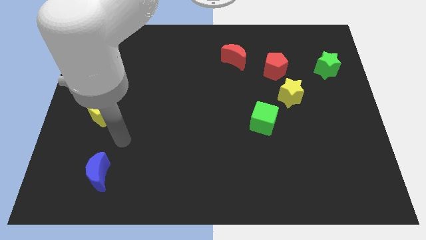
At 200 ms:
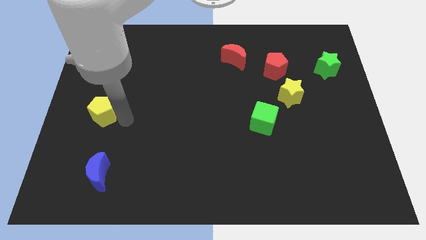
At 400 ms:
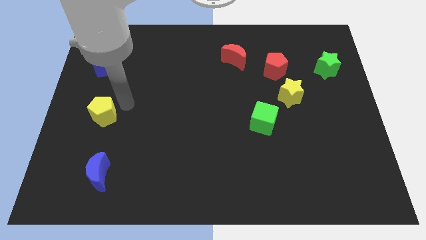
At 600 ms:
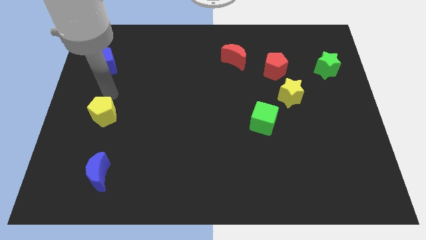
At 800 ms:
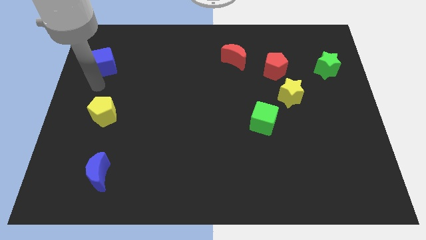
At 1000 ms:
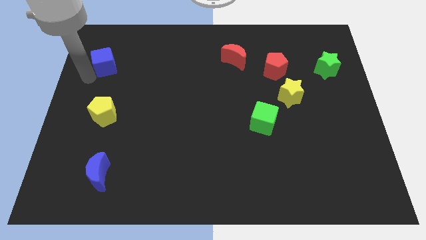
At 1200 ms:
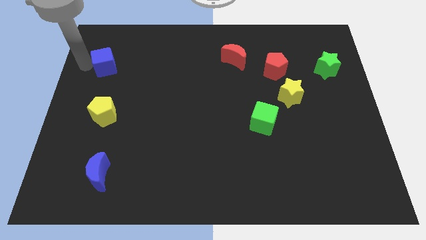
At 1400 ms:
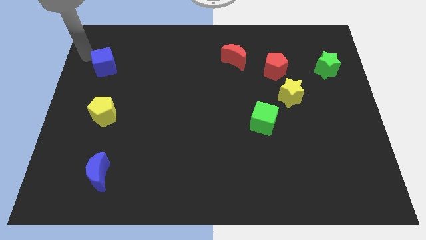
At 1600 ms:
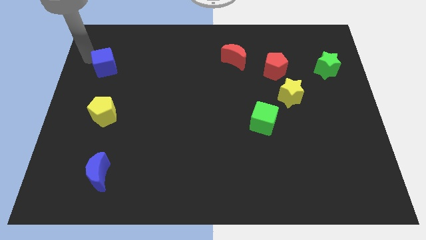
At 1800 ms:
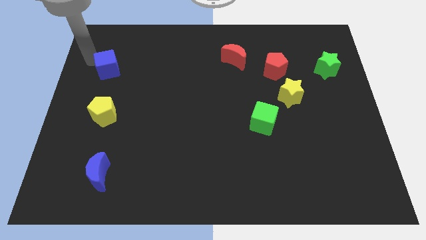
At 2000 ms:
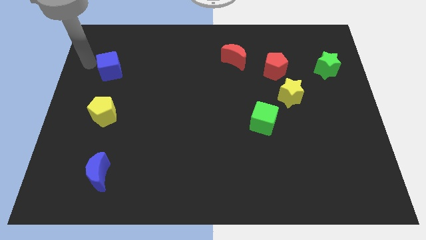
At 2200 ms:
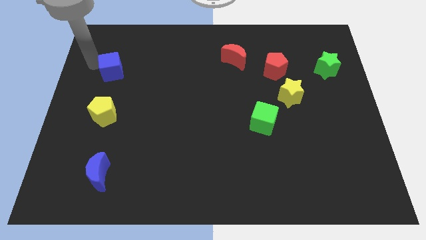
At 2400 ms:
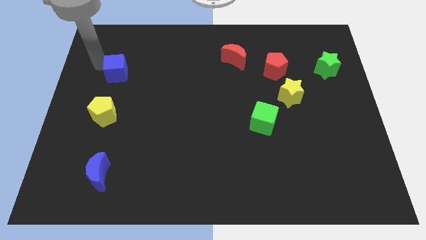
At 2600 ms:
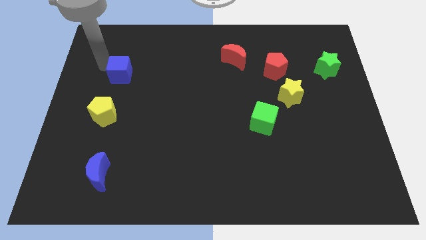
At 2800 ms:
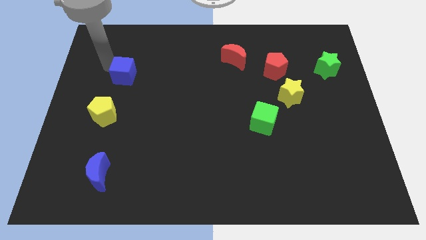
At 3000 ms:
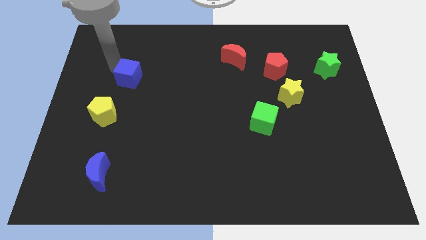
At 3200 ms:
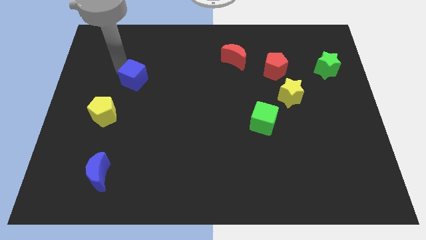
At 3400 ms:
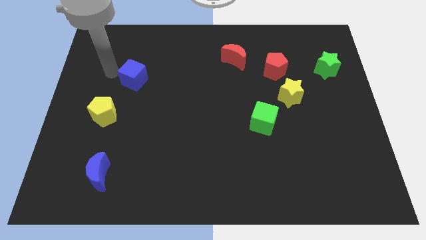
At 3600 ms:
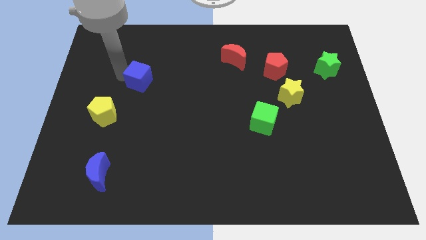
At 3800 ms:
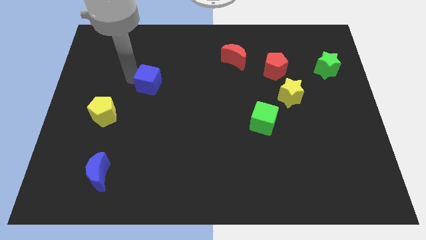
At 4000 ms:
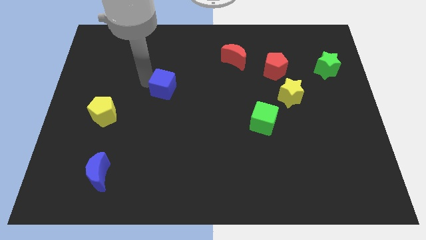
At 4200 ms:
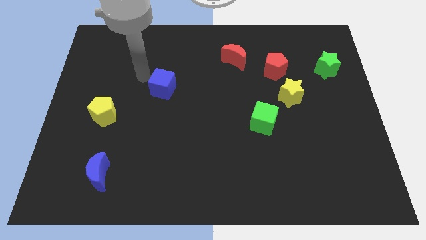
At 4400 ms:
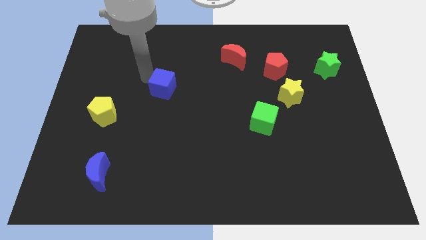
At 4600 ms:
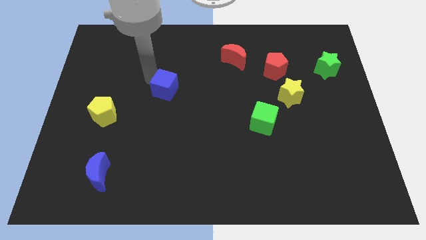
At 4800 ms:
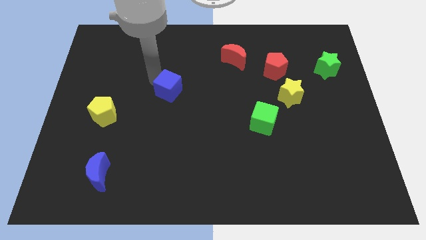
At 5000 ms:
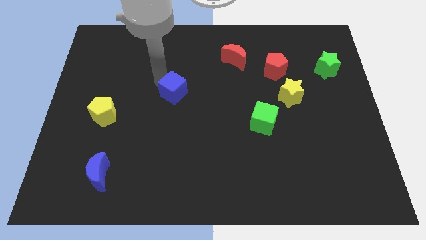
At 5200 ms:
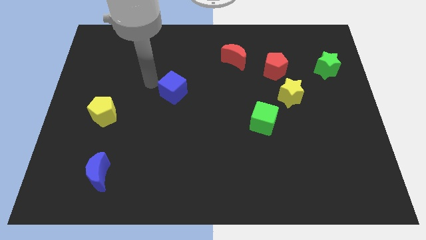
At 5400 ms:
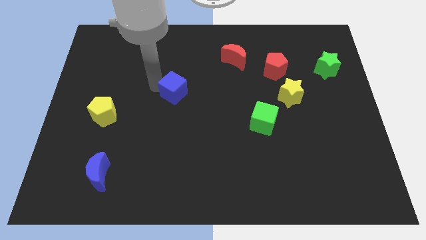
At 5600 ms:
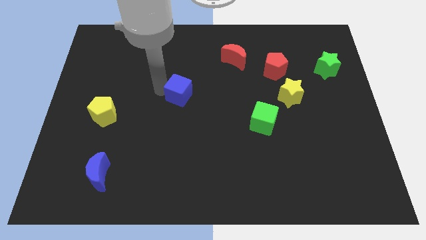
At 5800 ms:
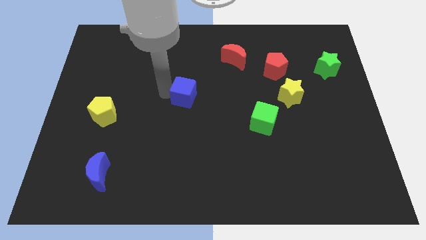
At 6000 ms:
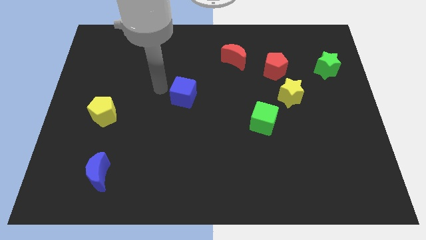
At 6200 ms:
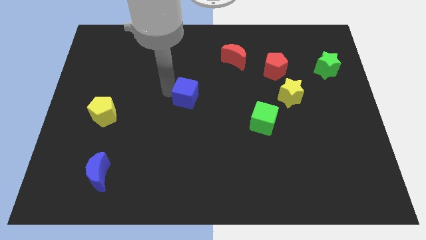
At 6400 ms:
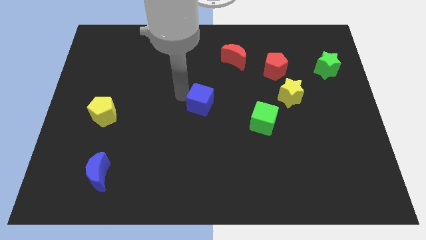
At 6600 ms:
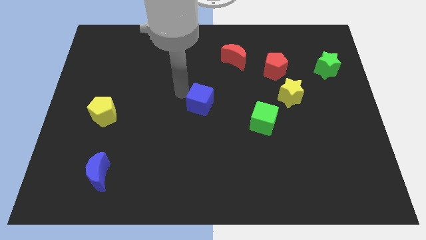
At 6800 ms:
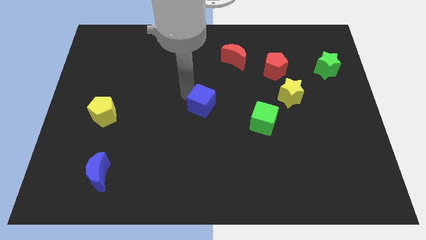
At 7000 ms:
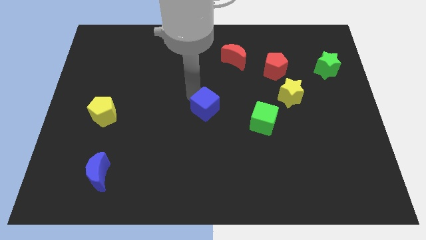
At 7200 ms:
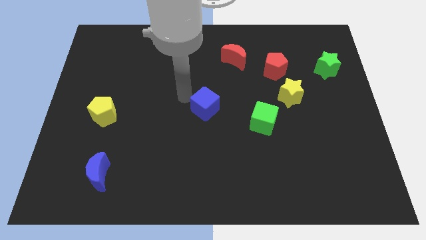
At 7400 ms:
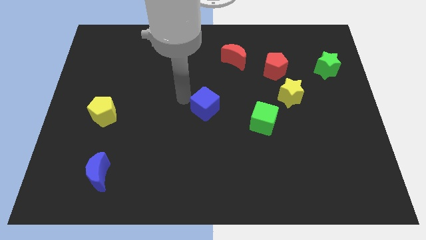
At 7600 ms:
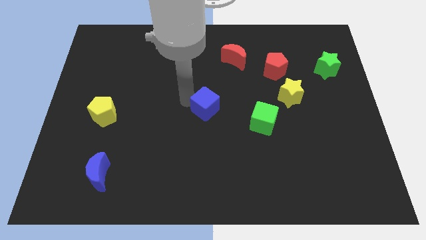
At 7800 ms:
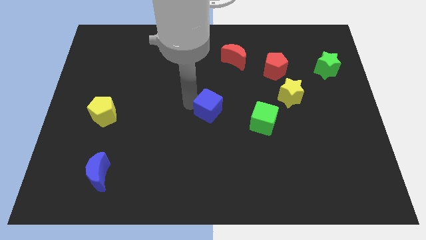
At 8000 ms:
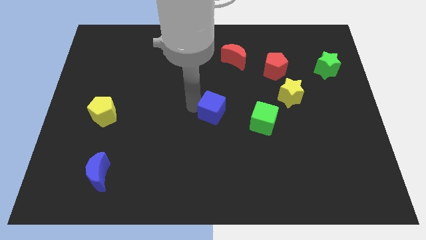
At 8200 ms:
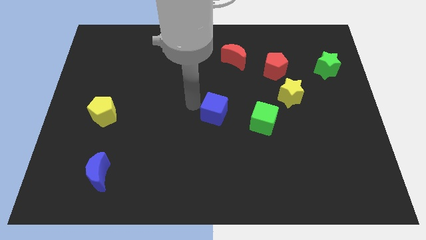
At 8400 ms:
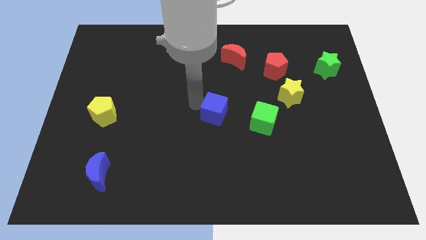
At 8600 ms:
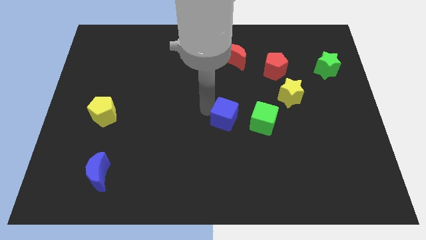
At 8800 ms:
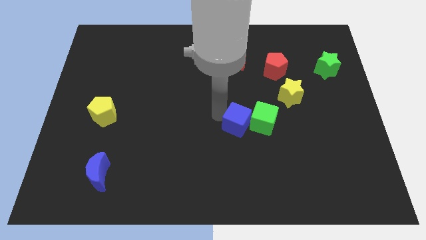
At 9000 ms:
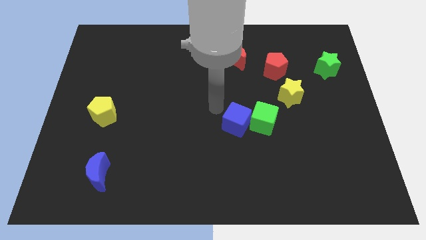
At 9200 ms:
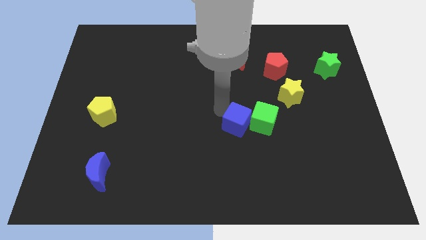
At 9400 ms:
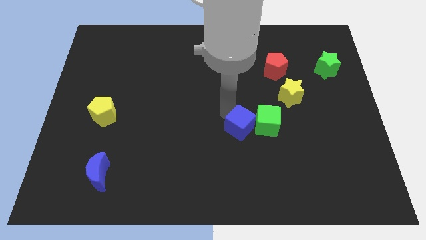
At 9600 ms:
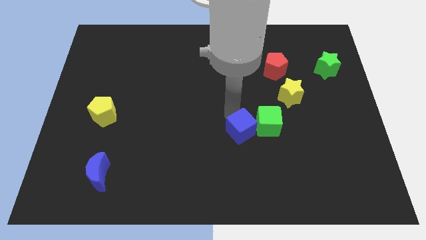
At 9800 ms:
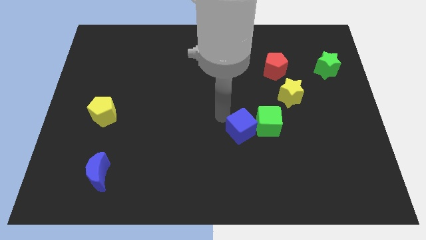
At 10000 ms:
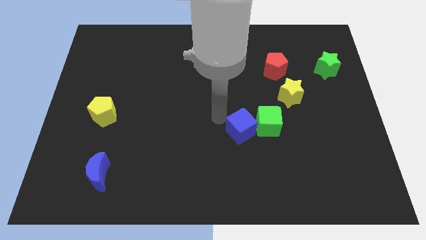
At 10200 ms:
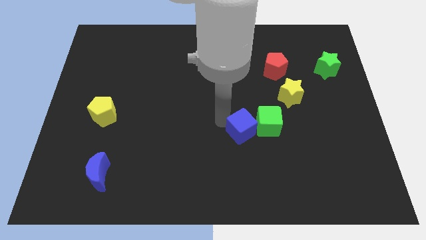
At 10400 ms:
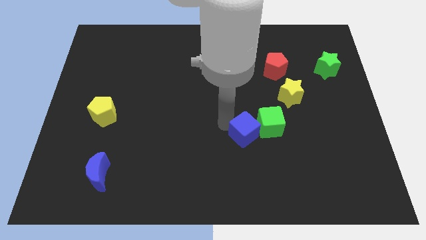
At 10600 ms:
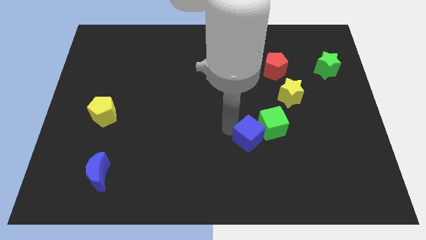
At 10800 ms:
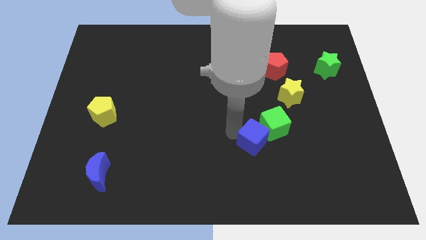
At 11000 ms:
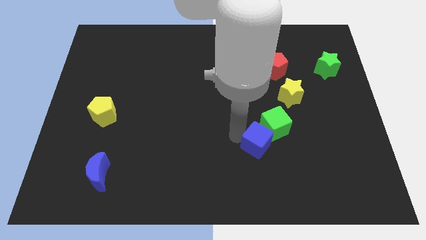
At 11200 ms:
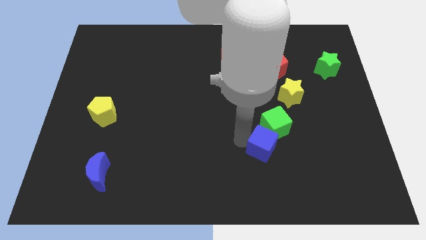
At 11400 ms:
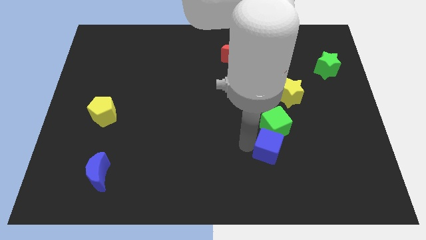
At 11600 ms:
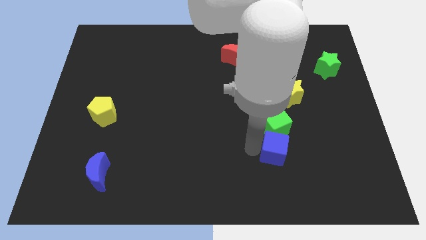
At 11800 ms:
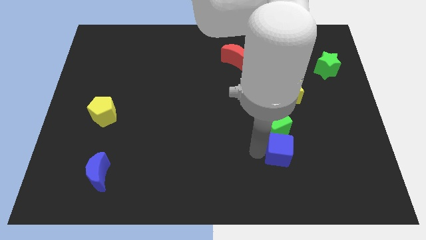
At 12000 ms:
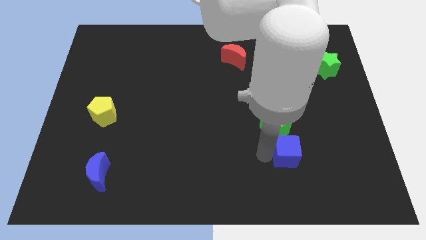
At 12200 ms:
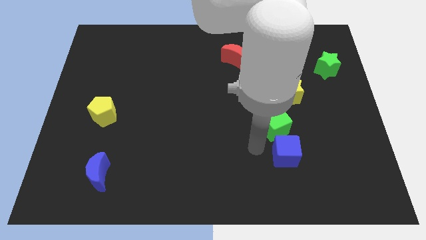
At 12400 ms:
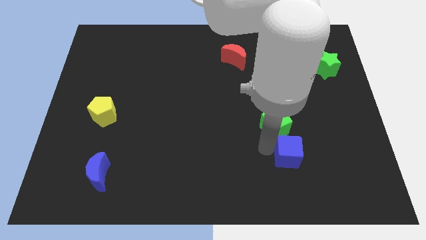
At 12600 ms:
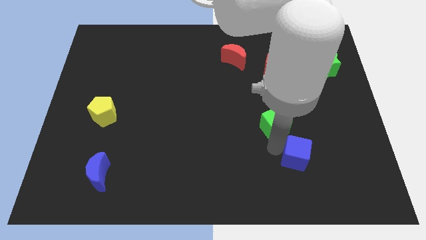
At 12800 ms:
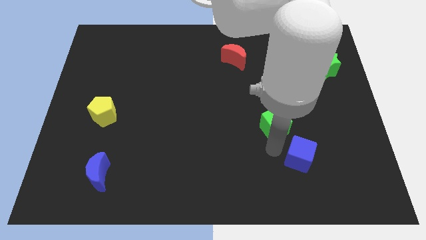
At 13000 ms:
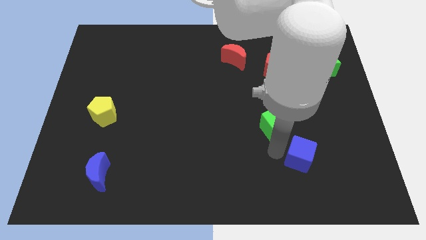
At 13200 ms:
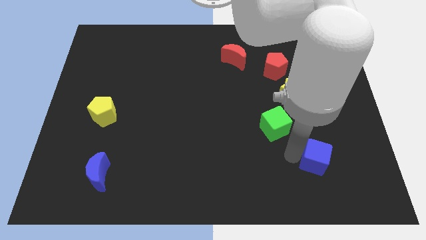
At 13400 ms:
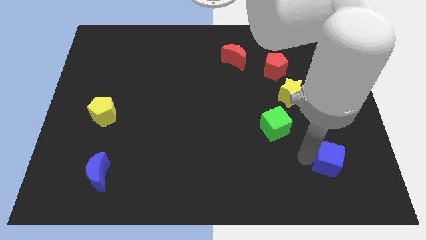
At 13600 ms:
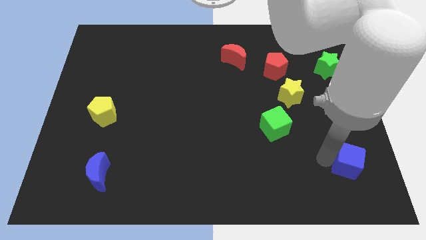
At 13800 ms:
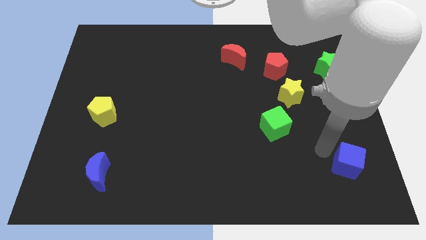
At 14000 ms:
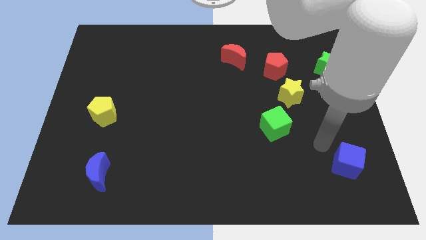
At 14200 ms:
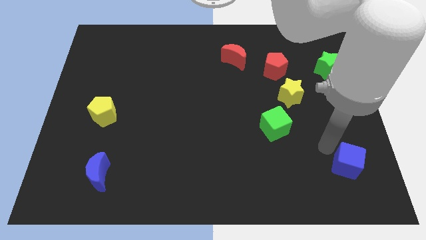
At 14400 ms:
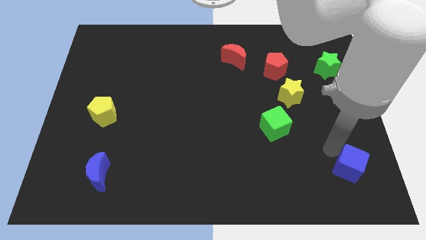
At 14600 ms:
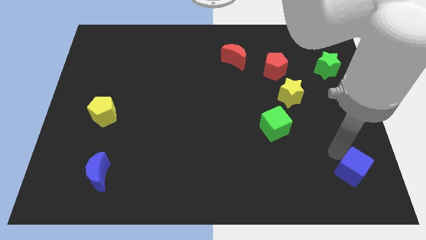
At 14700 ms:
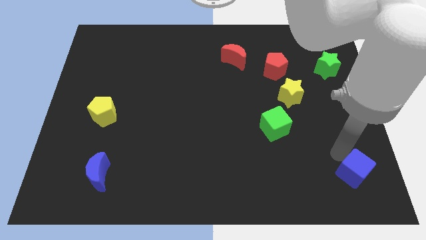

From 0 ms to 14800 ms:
slide the blue cube to the bottom right corner
